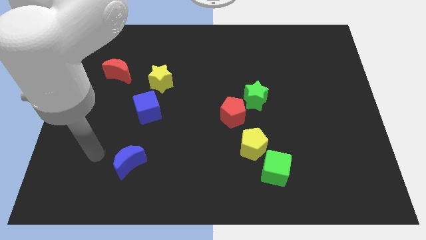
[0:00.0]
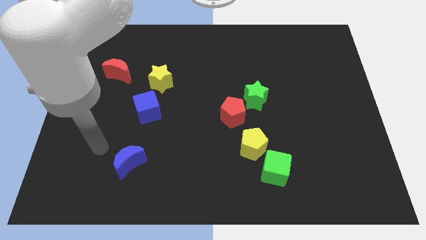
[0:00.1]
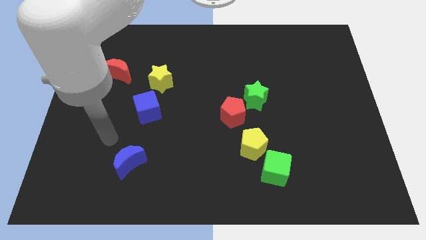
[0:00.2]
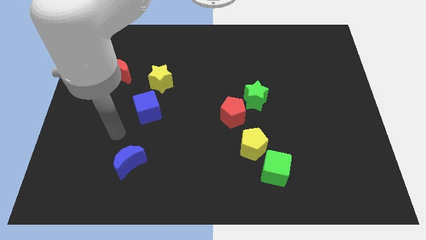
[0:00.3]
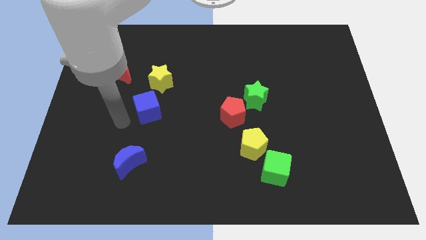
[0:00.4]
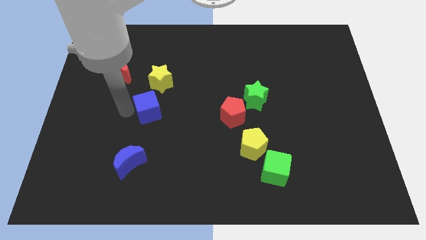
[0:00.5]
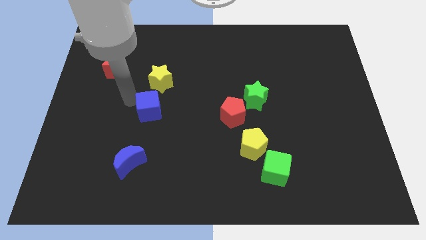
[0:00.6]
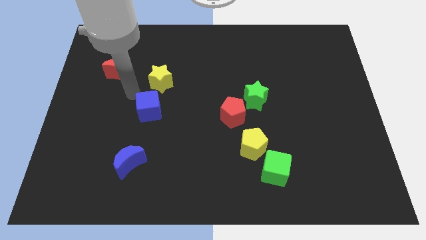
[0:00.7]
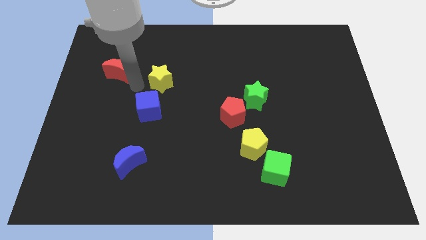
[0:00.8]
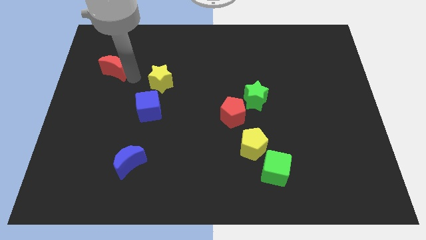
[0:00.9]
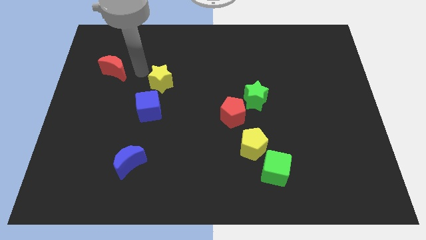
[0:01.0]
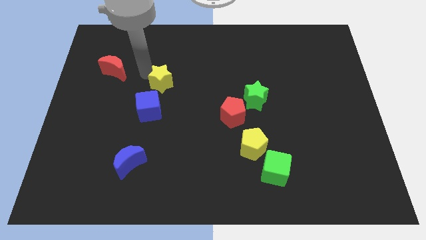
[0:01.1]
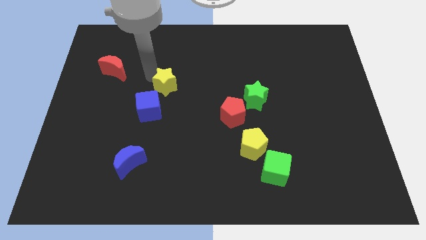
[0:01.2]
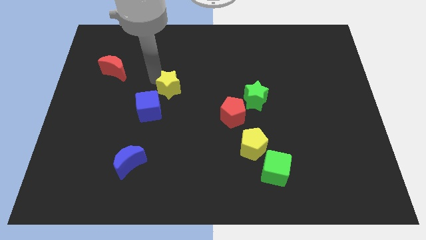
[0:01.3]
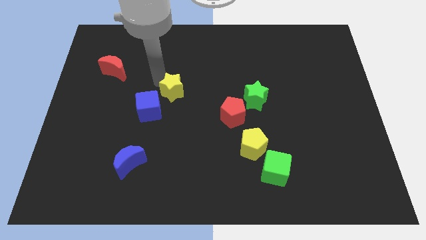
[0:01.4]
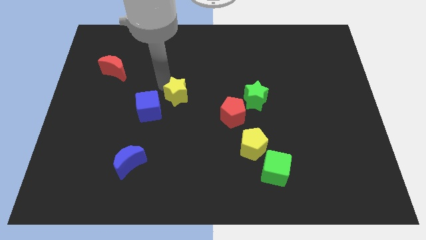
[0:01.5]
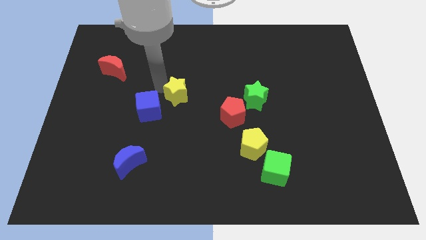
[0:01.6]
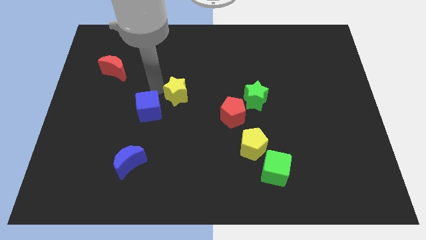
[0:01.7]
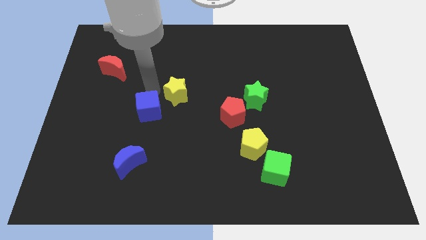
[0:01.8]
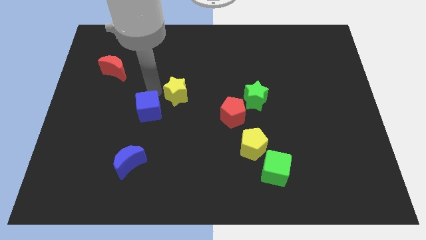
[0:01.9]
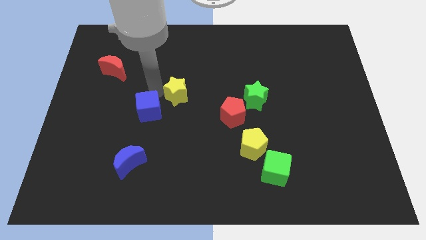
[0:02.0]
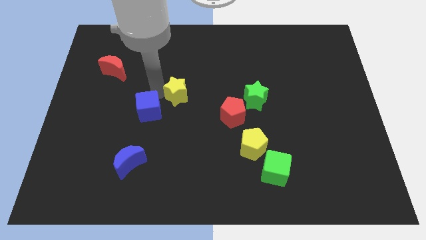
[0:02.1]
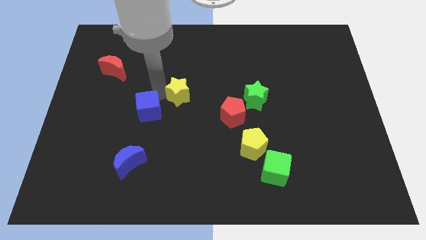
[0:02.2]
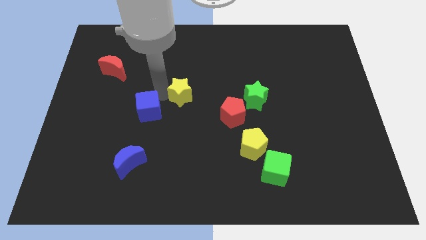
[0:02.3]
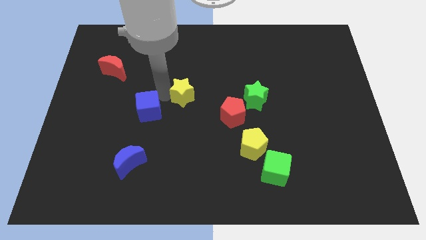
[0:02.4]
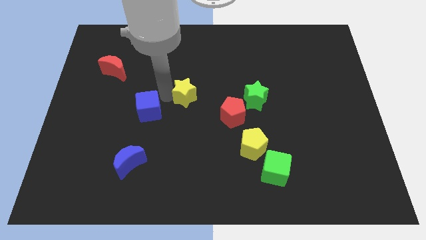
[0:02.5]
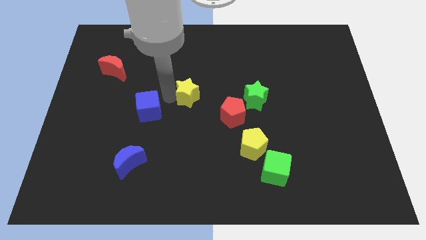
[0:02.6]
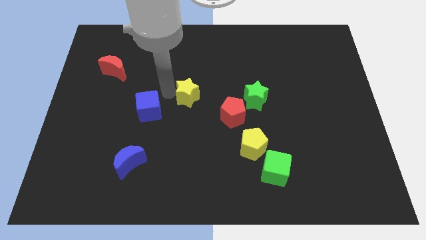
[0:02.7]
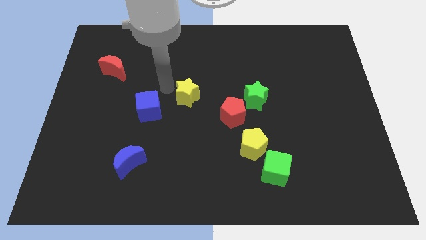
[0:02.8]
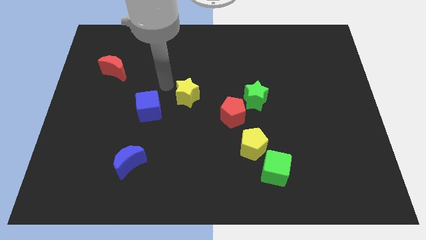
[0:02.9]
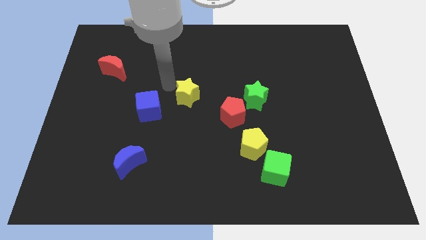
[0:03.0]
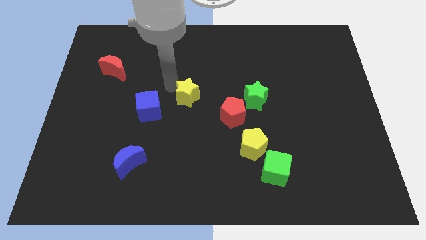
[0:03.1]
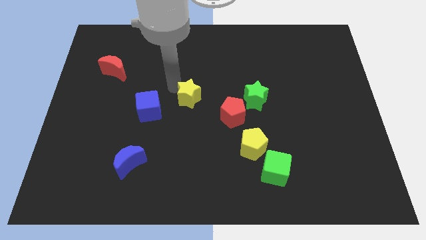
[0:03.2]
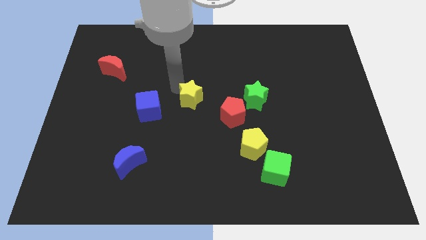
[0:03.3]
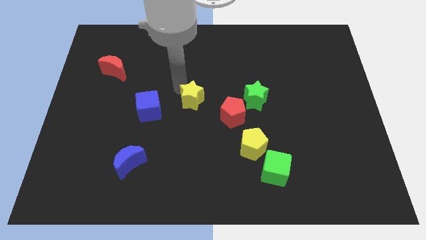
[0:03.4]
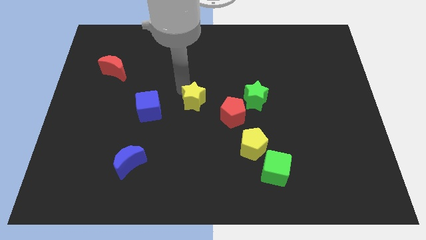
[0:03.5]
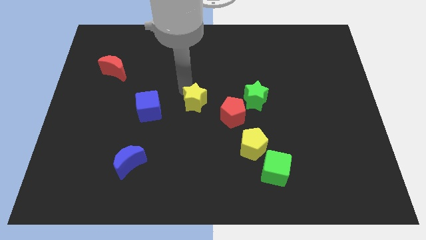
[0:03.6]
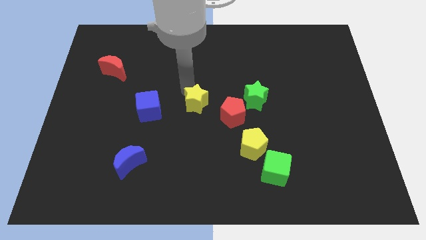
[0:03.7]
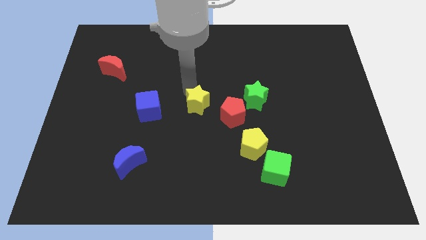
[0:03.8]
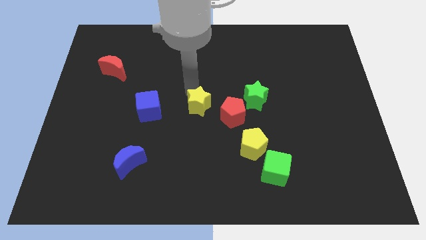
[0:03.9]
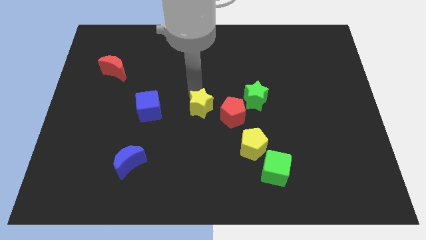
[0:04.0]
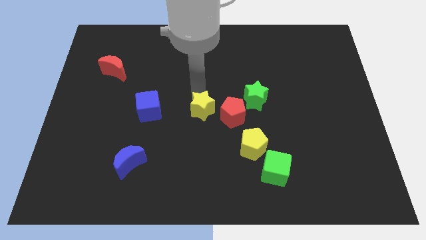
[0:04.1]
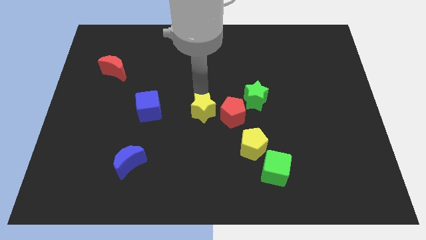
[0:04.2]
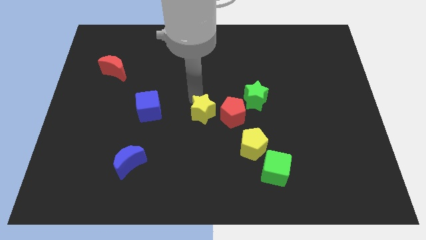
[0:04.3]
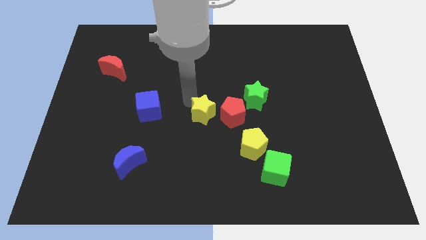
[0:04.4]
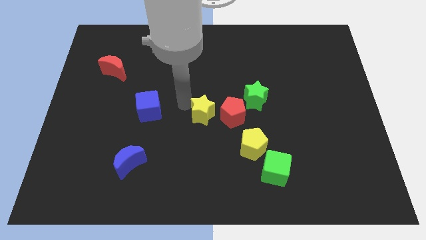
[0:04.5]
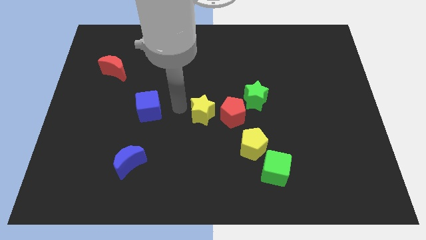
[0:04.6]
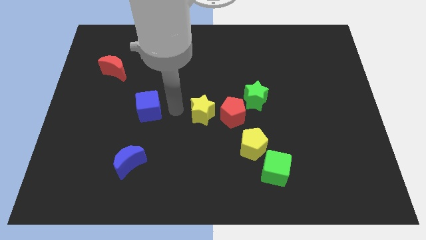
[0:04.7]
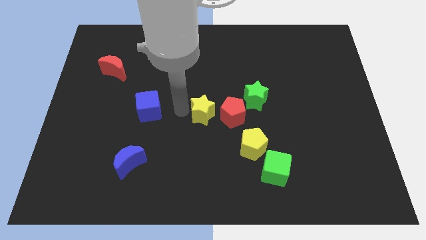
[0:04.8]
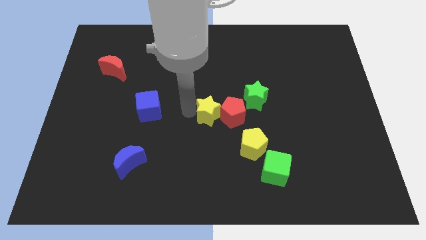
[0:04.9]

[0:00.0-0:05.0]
move the yellow star to the red pentagon

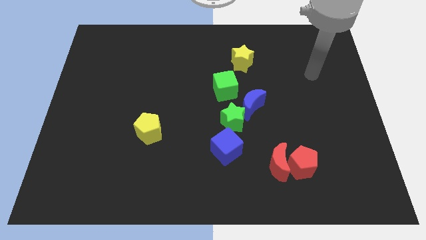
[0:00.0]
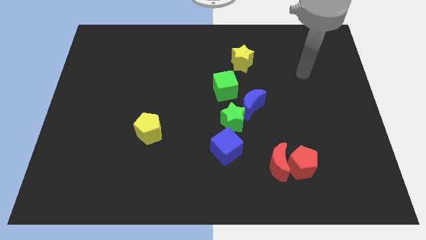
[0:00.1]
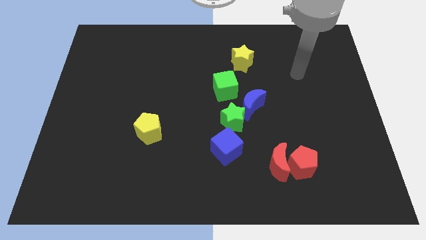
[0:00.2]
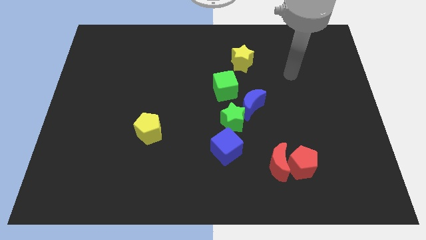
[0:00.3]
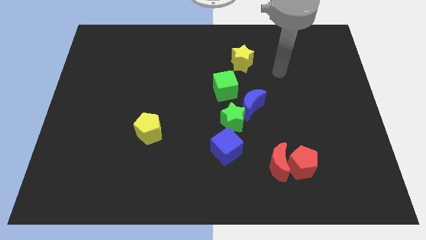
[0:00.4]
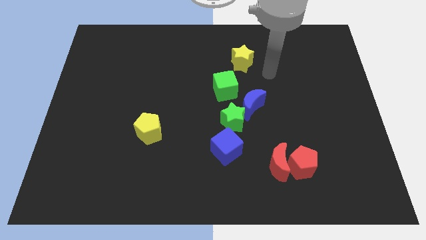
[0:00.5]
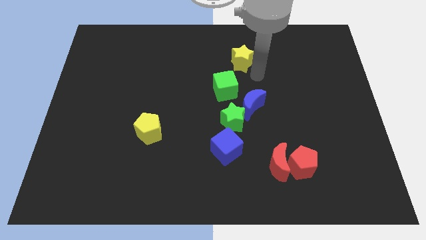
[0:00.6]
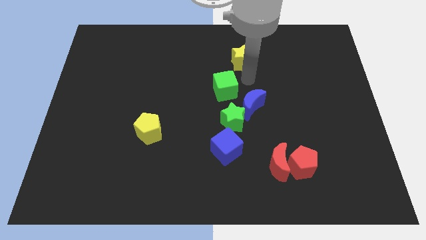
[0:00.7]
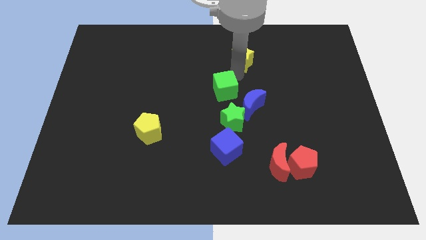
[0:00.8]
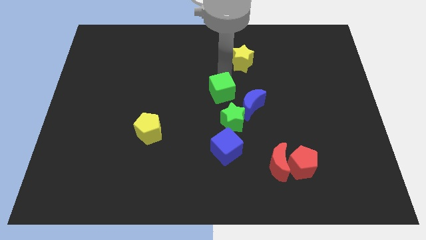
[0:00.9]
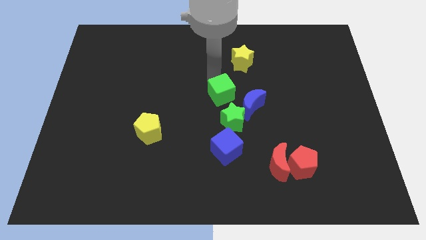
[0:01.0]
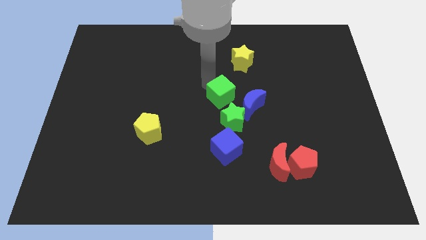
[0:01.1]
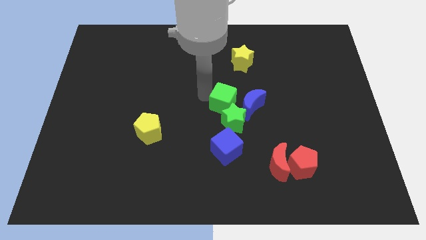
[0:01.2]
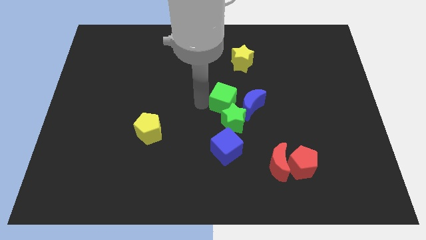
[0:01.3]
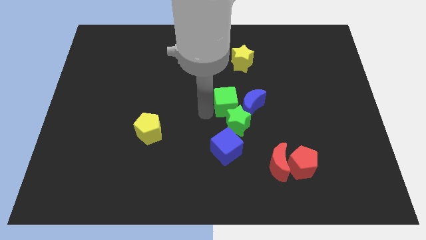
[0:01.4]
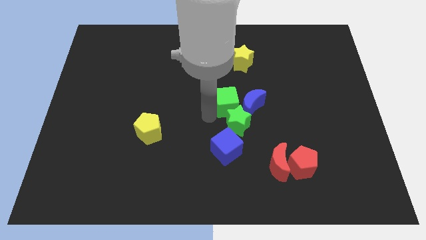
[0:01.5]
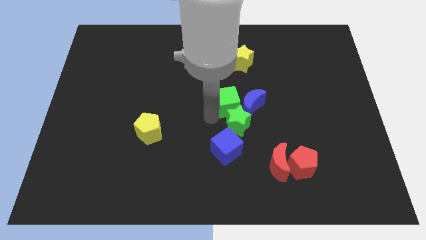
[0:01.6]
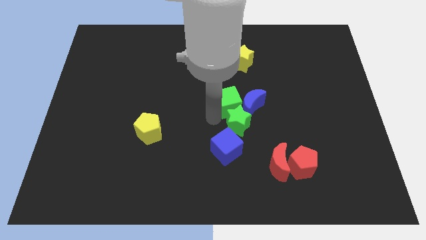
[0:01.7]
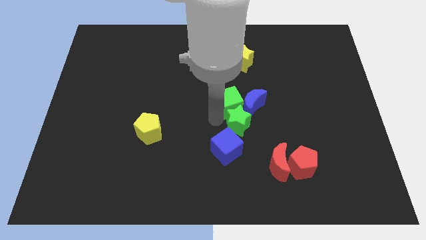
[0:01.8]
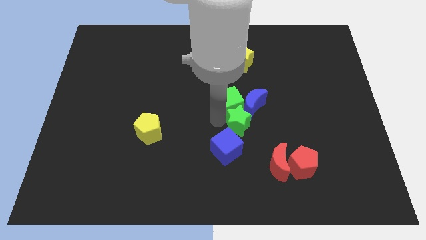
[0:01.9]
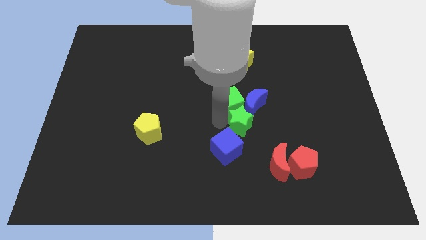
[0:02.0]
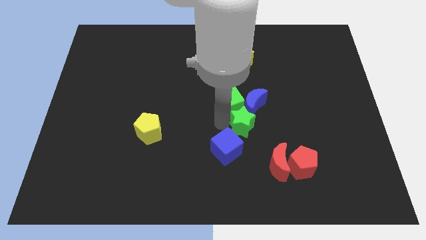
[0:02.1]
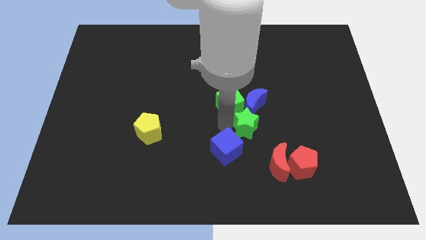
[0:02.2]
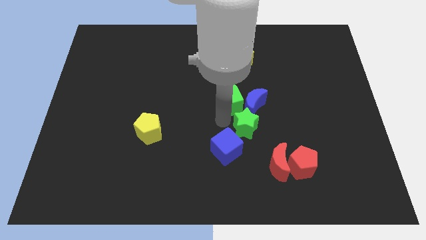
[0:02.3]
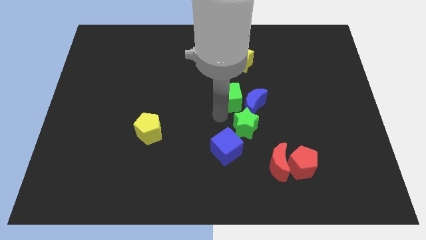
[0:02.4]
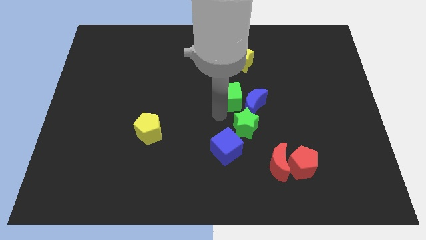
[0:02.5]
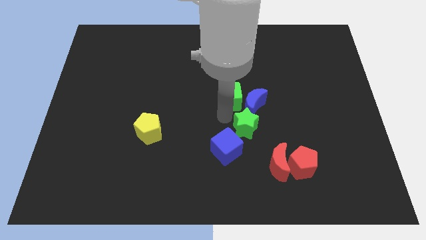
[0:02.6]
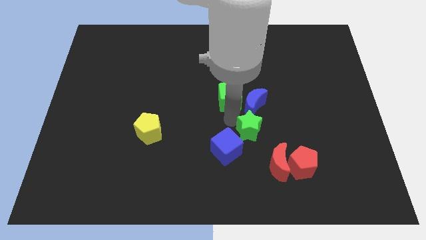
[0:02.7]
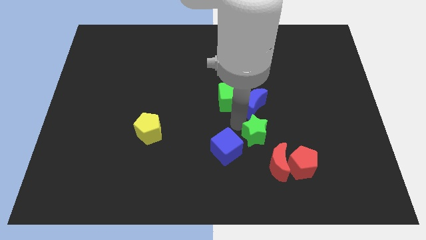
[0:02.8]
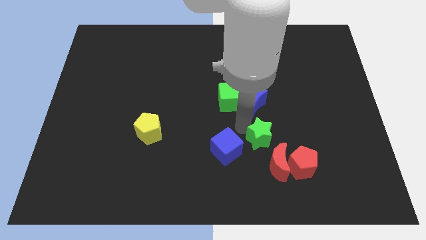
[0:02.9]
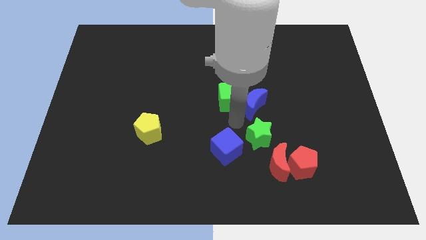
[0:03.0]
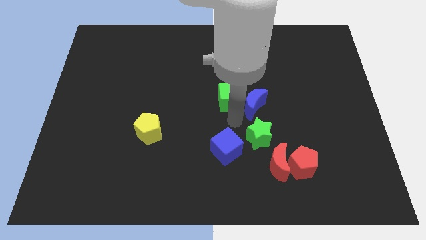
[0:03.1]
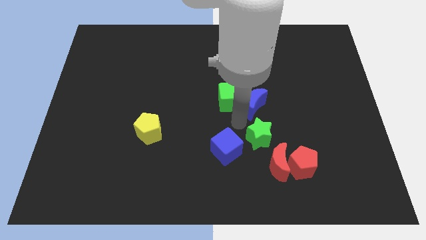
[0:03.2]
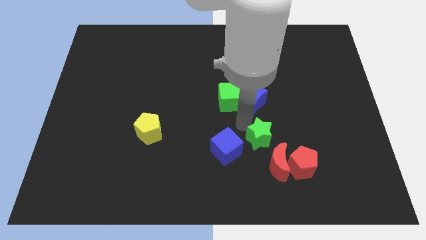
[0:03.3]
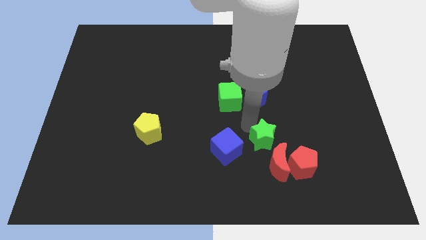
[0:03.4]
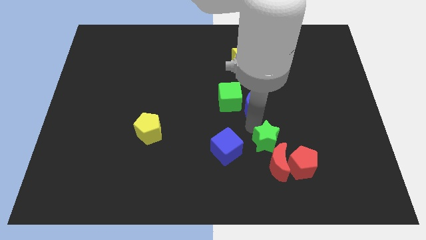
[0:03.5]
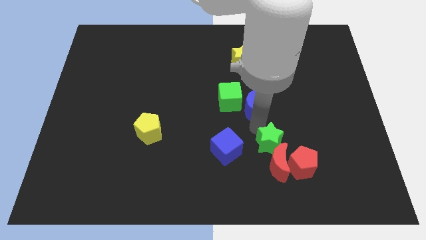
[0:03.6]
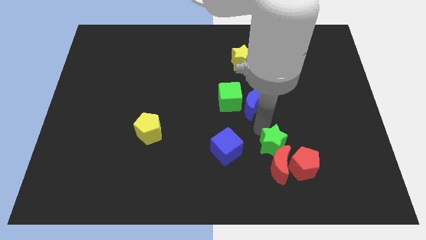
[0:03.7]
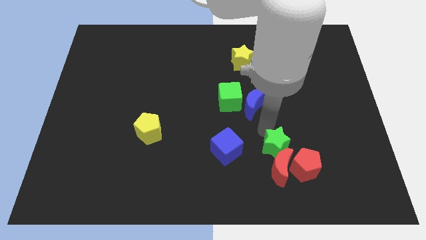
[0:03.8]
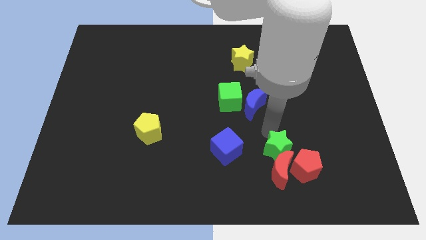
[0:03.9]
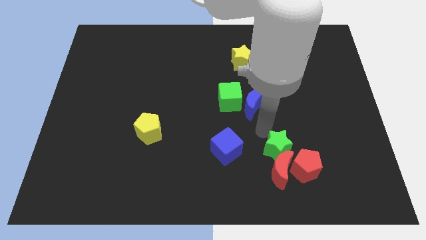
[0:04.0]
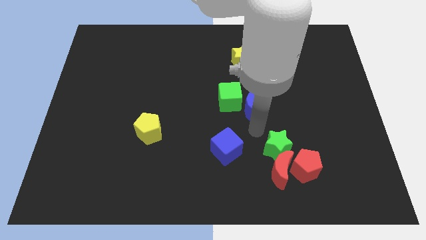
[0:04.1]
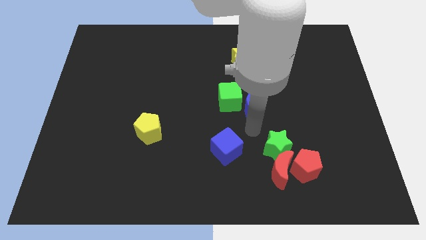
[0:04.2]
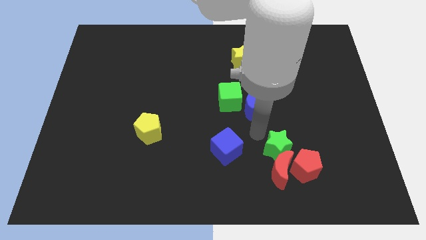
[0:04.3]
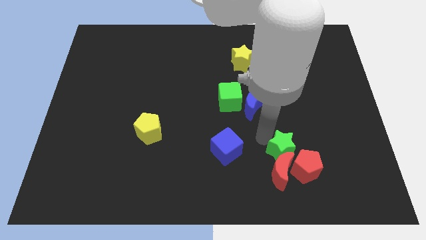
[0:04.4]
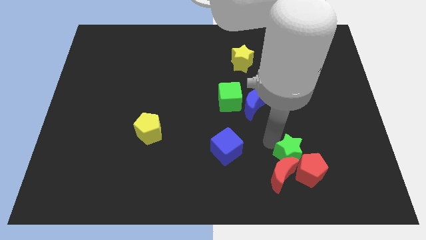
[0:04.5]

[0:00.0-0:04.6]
move the green star to the red pentagon
